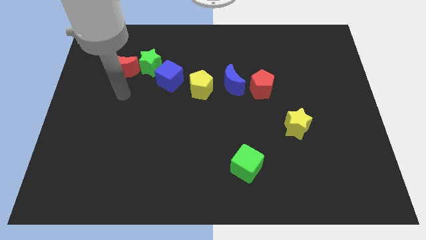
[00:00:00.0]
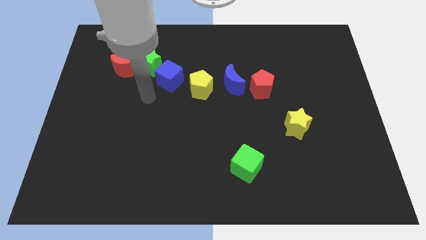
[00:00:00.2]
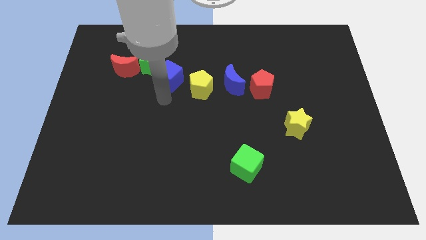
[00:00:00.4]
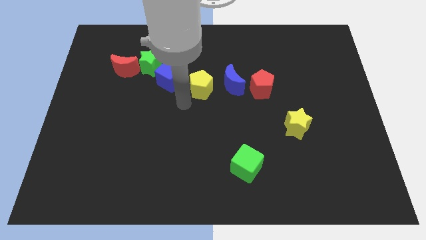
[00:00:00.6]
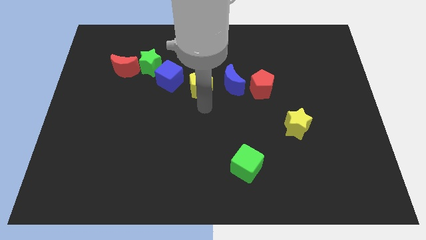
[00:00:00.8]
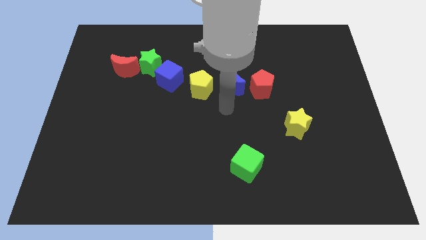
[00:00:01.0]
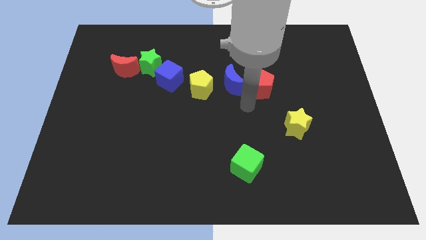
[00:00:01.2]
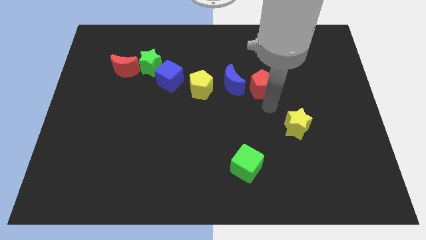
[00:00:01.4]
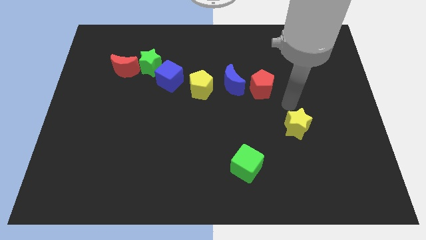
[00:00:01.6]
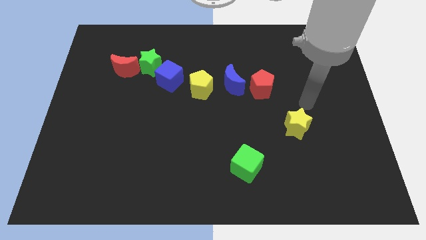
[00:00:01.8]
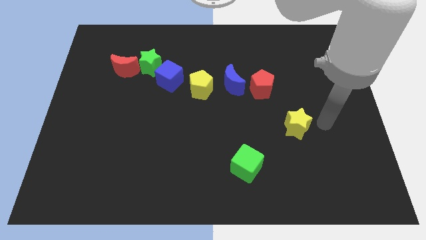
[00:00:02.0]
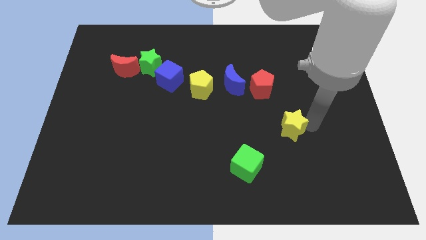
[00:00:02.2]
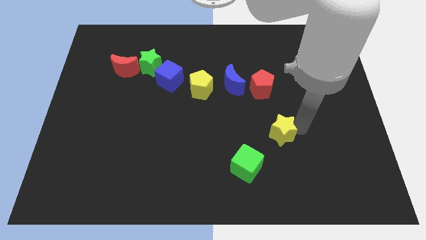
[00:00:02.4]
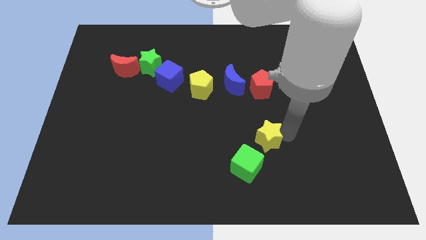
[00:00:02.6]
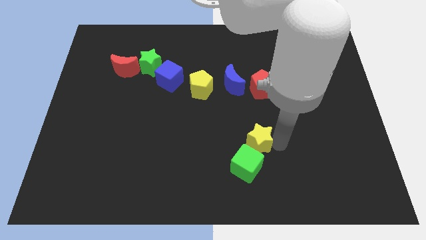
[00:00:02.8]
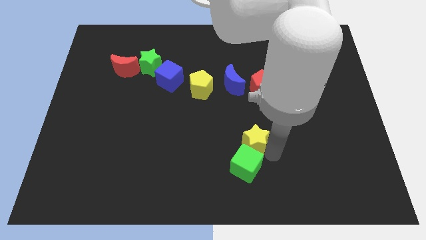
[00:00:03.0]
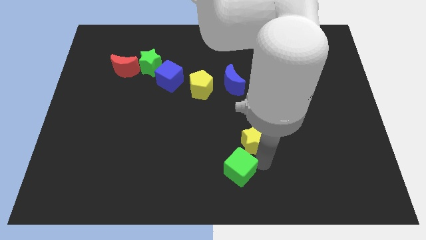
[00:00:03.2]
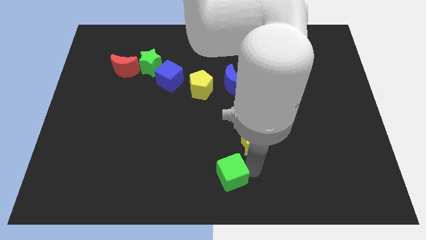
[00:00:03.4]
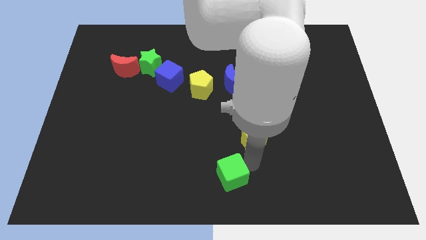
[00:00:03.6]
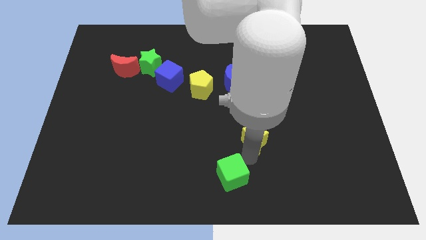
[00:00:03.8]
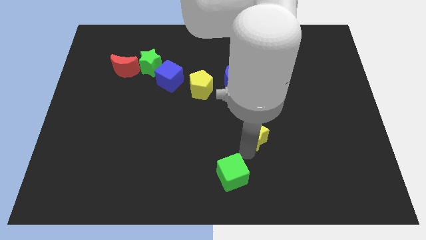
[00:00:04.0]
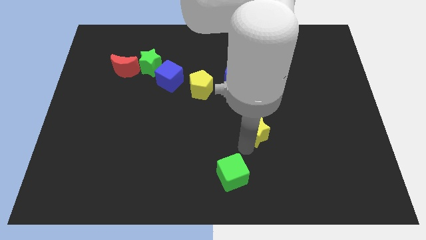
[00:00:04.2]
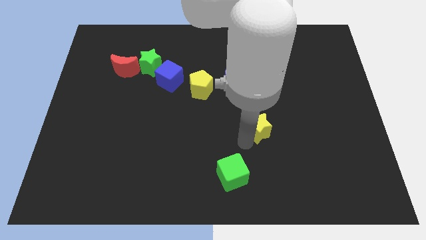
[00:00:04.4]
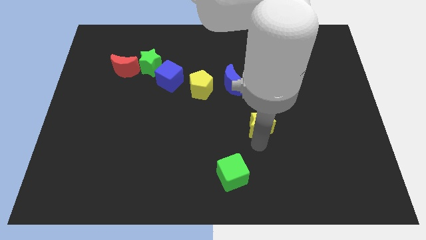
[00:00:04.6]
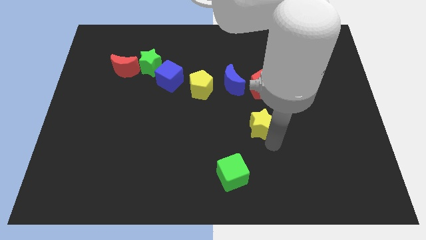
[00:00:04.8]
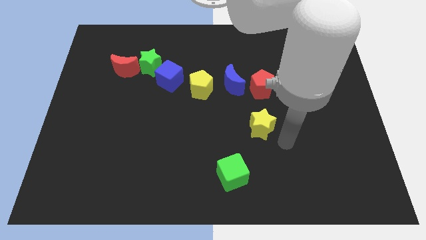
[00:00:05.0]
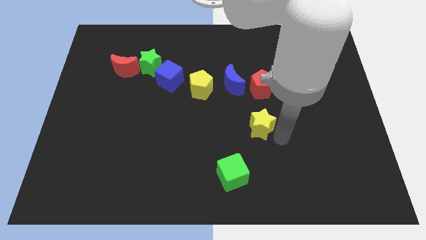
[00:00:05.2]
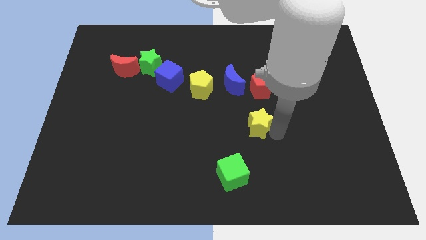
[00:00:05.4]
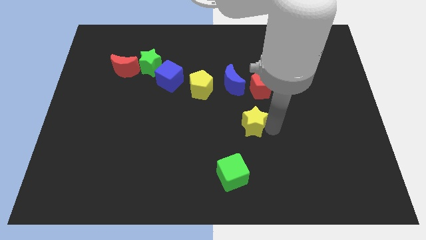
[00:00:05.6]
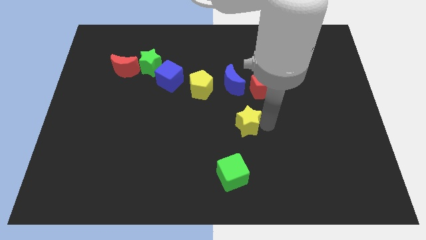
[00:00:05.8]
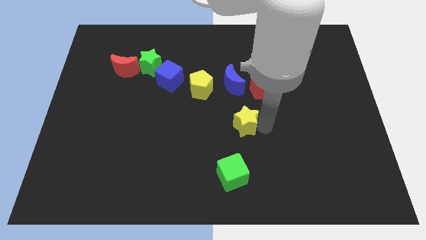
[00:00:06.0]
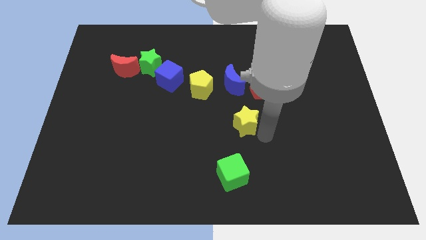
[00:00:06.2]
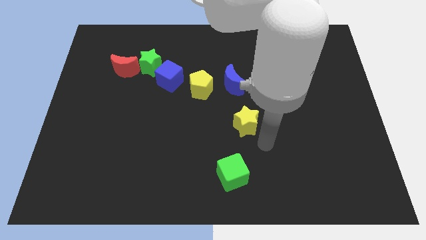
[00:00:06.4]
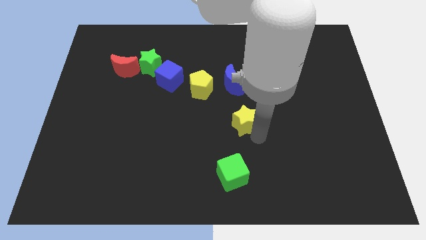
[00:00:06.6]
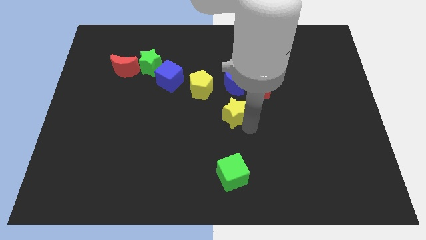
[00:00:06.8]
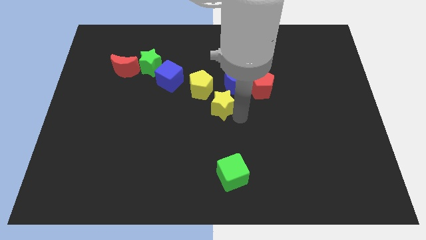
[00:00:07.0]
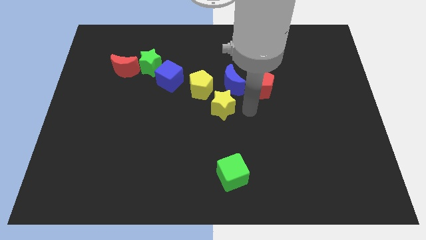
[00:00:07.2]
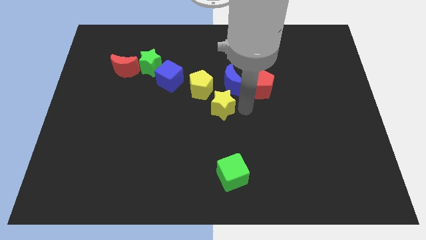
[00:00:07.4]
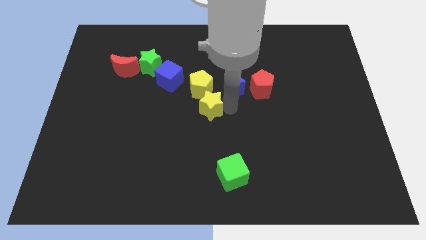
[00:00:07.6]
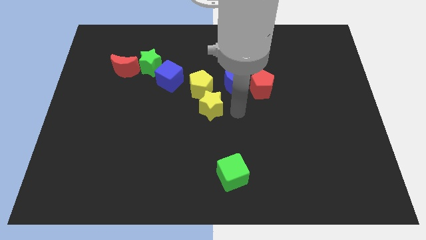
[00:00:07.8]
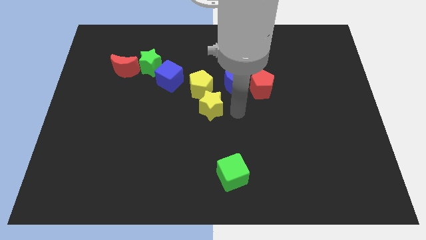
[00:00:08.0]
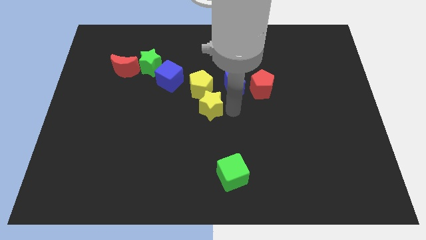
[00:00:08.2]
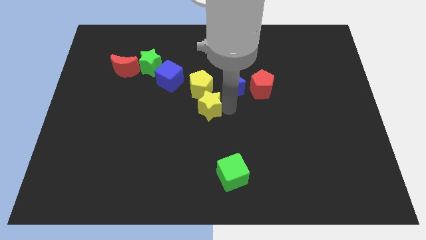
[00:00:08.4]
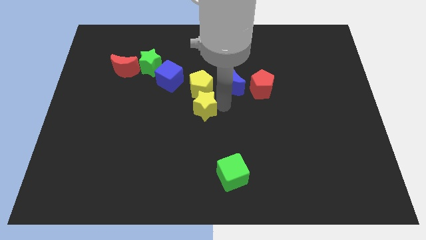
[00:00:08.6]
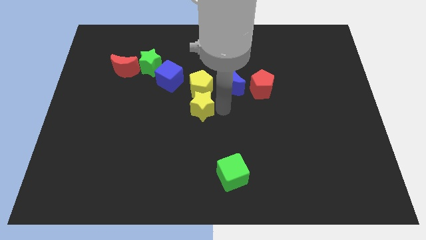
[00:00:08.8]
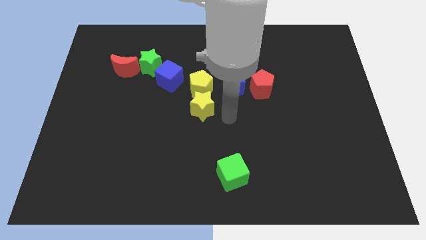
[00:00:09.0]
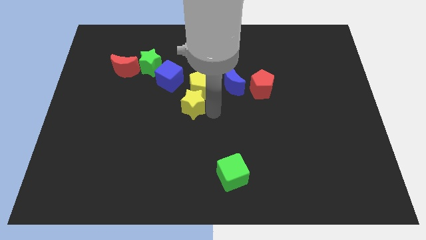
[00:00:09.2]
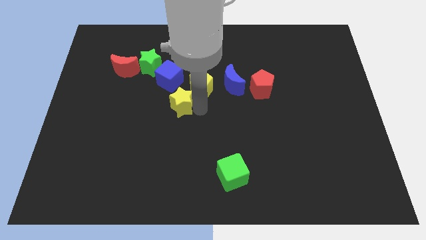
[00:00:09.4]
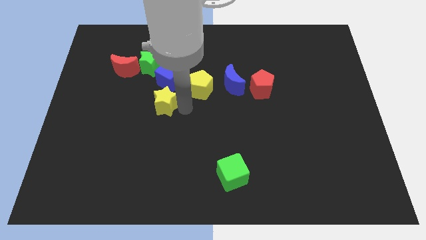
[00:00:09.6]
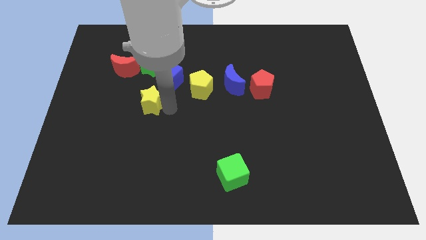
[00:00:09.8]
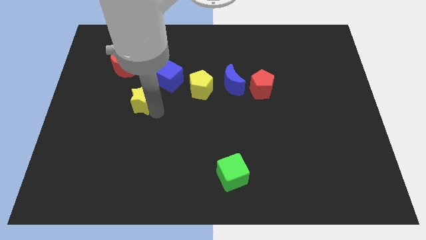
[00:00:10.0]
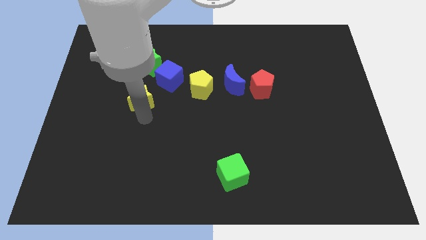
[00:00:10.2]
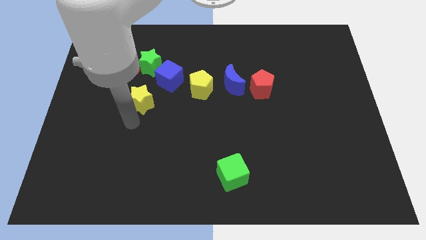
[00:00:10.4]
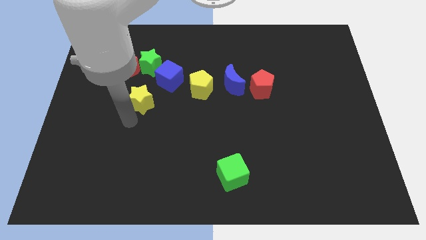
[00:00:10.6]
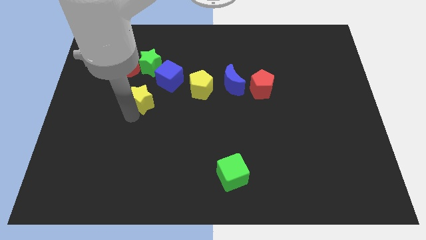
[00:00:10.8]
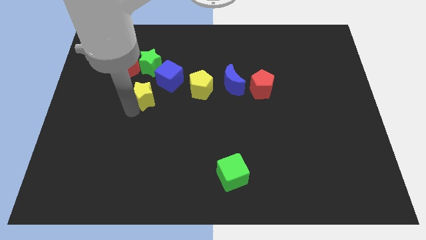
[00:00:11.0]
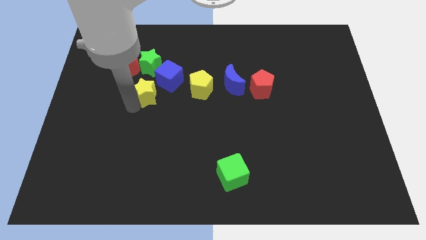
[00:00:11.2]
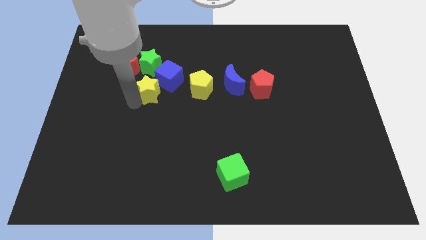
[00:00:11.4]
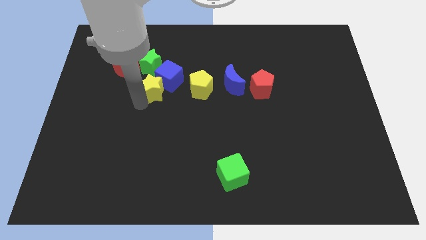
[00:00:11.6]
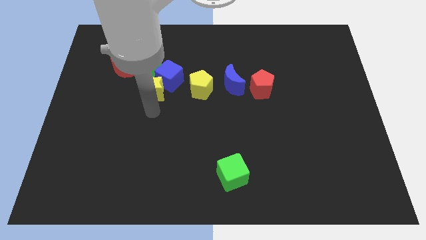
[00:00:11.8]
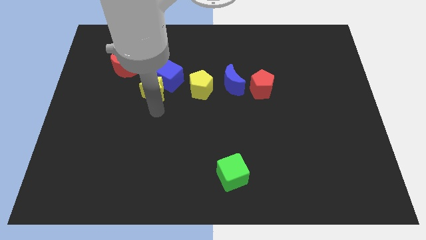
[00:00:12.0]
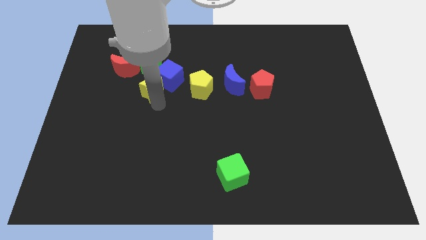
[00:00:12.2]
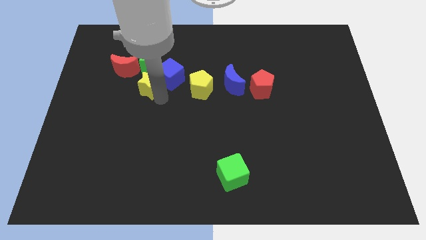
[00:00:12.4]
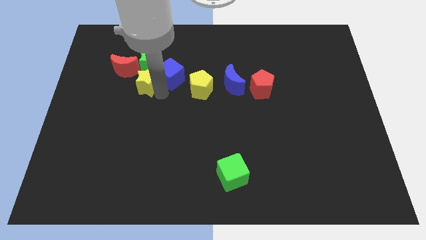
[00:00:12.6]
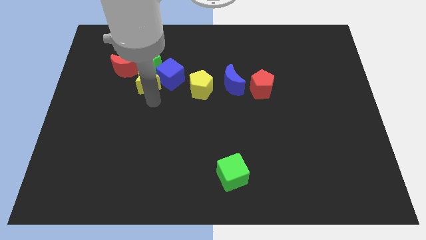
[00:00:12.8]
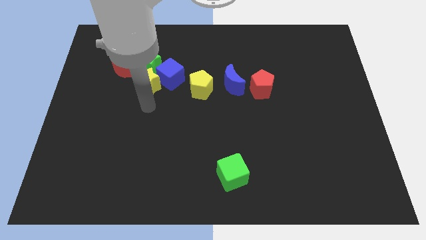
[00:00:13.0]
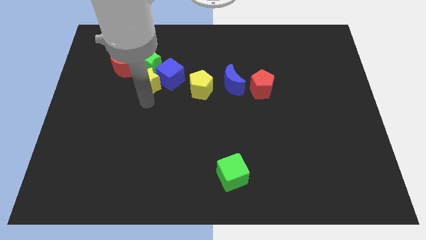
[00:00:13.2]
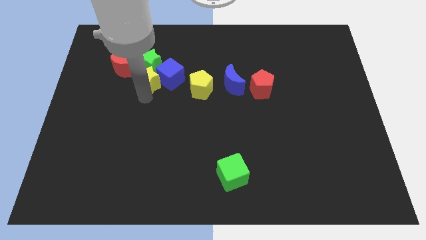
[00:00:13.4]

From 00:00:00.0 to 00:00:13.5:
slide the yellow star towards the green star
